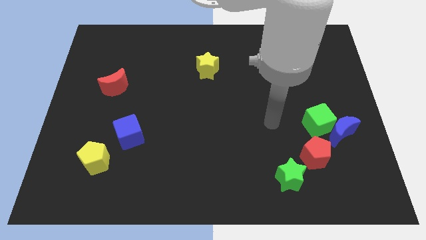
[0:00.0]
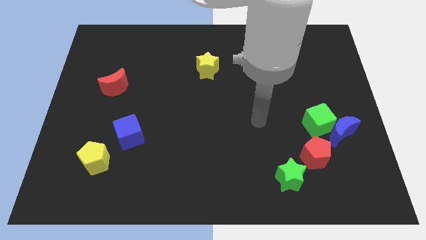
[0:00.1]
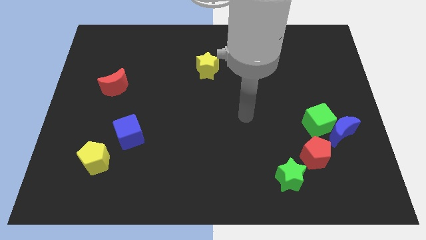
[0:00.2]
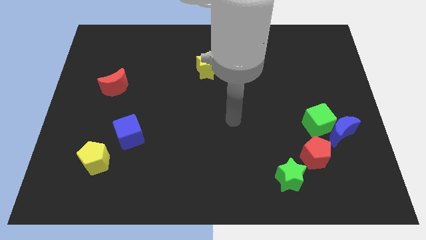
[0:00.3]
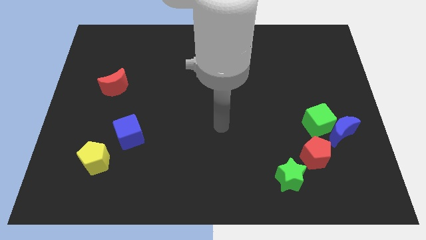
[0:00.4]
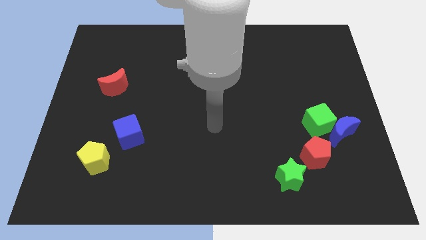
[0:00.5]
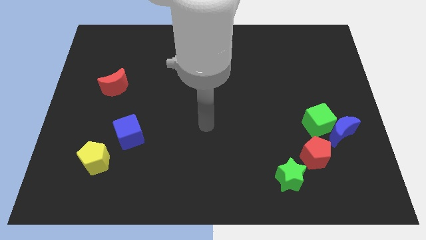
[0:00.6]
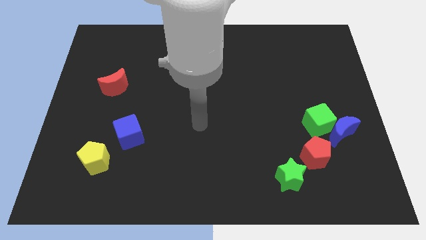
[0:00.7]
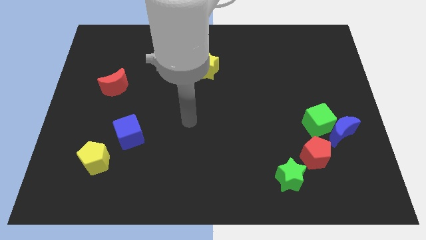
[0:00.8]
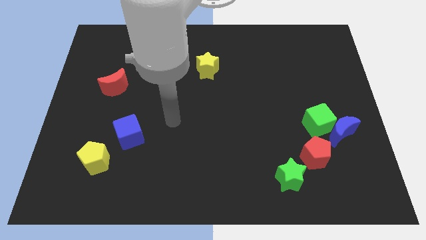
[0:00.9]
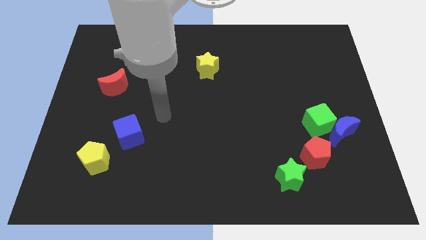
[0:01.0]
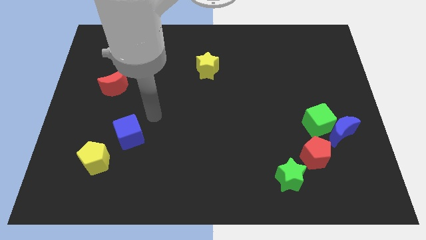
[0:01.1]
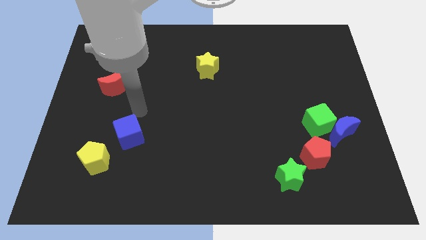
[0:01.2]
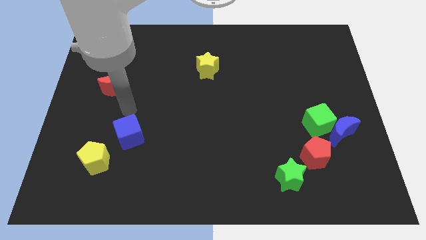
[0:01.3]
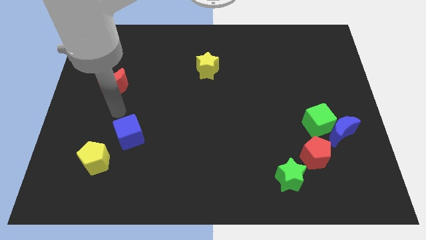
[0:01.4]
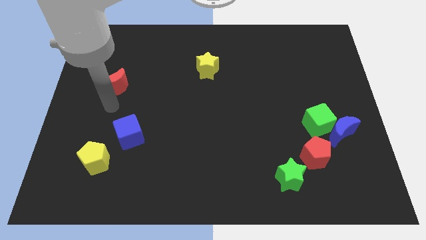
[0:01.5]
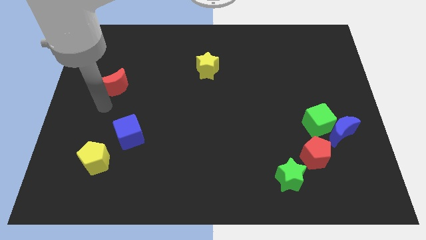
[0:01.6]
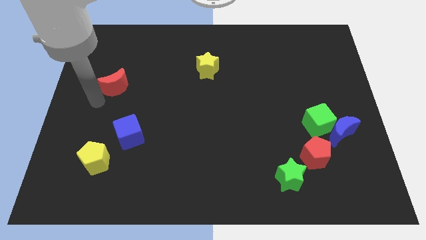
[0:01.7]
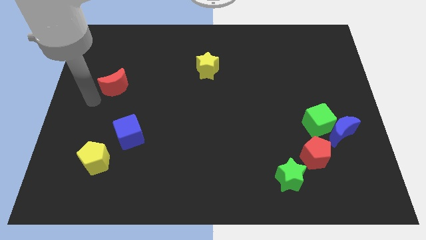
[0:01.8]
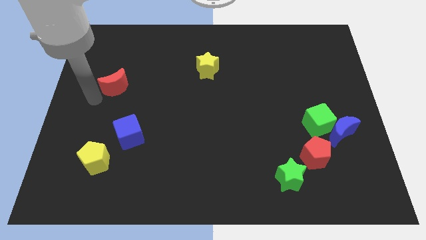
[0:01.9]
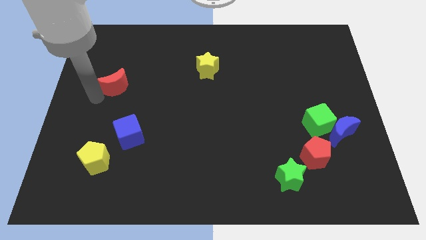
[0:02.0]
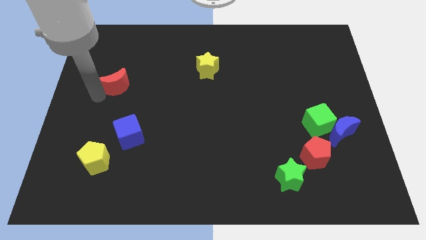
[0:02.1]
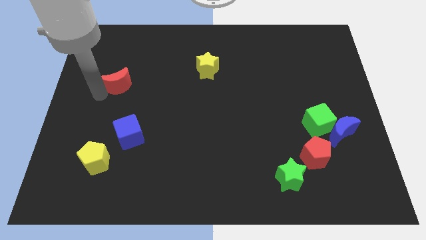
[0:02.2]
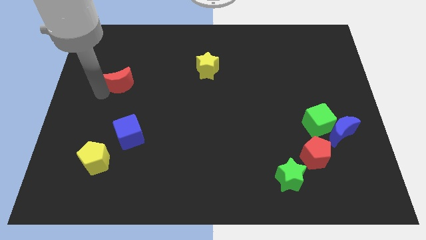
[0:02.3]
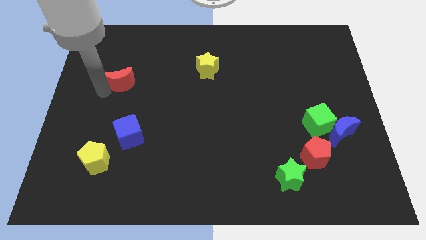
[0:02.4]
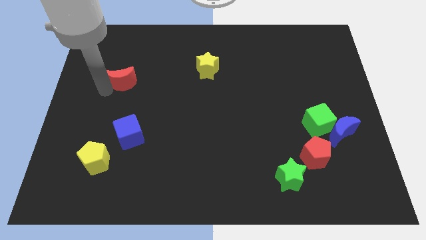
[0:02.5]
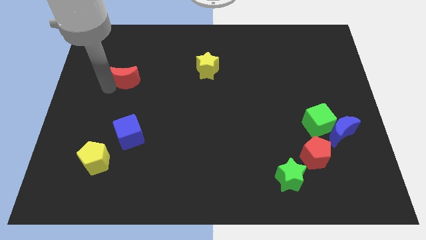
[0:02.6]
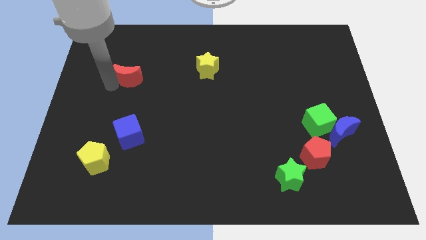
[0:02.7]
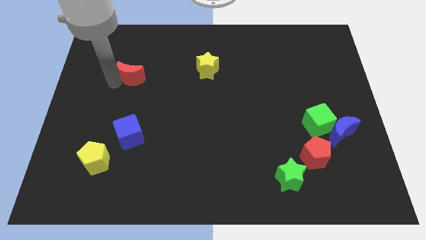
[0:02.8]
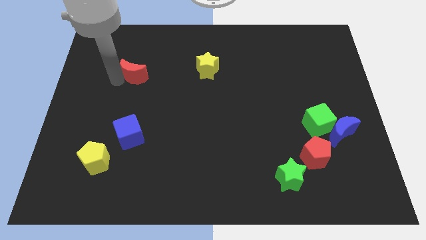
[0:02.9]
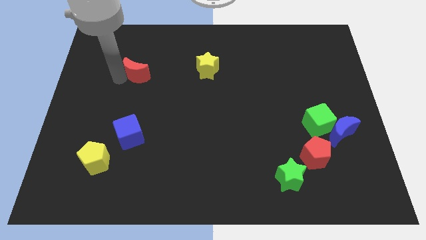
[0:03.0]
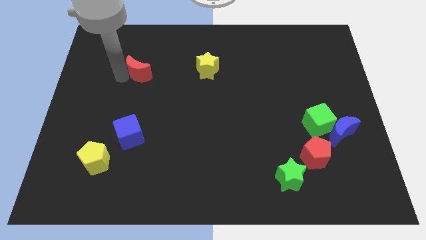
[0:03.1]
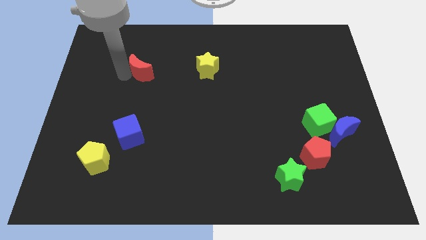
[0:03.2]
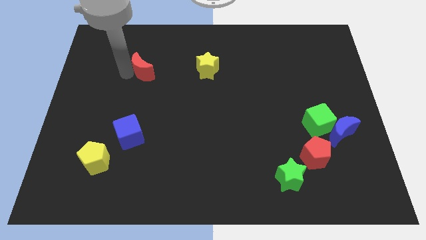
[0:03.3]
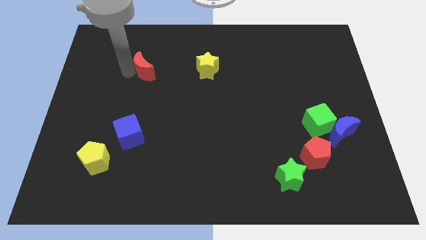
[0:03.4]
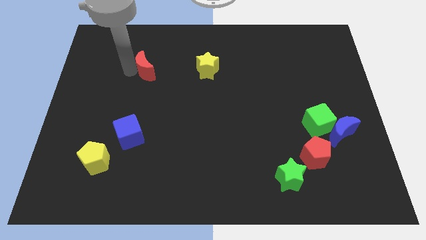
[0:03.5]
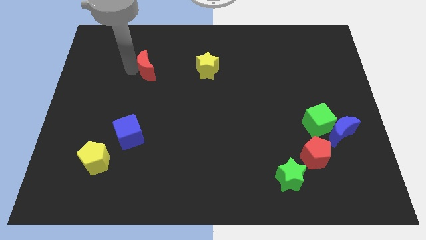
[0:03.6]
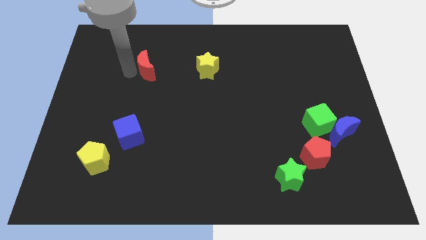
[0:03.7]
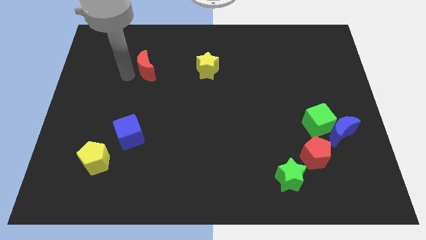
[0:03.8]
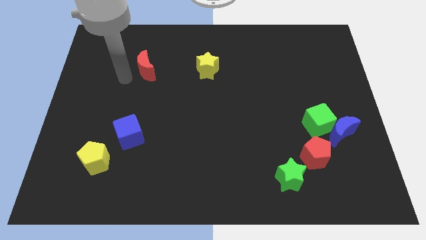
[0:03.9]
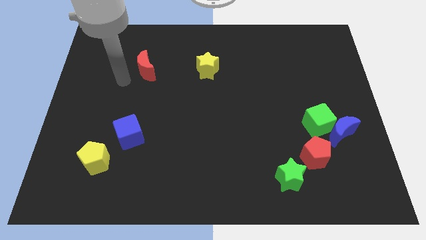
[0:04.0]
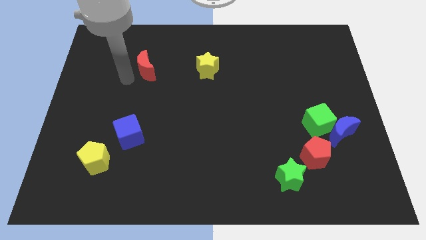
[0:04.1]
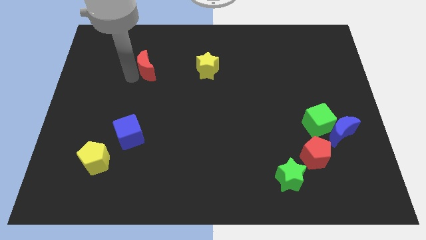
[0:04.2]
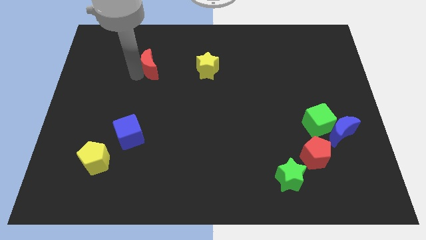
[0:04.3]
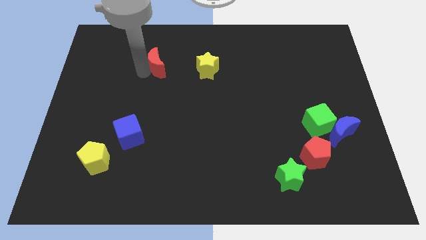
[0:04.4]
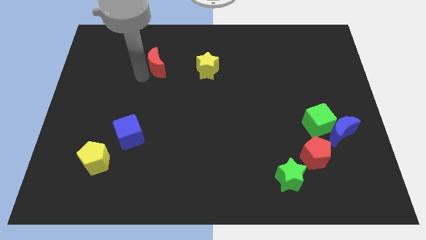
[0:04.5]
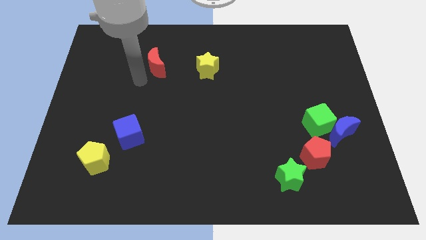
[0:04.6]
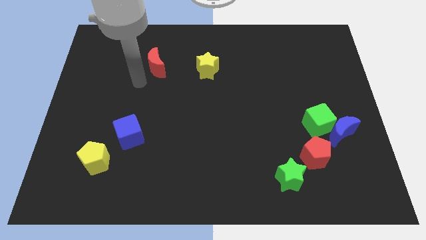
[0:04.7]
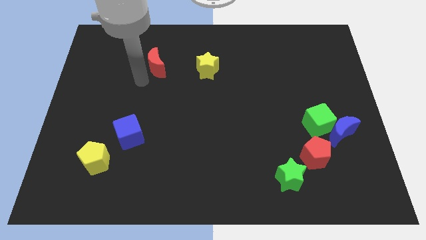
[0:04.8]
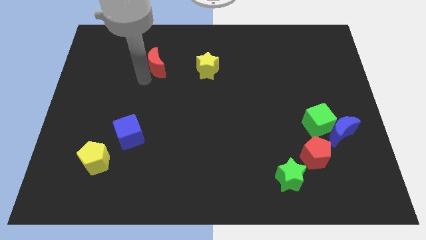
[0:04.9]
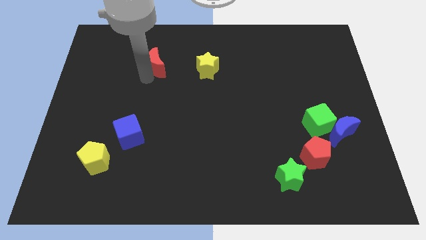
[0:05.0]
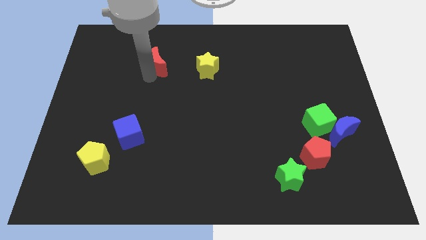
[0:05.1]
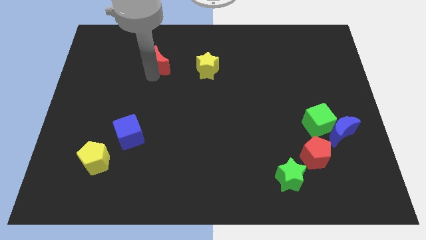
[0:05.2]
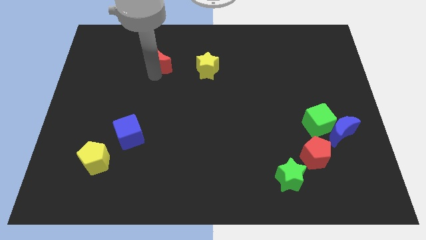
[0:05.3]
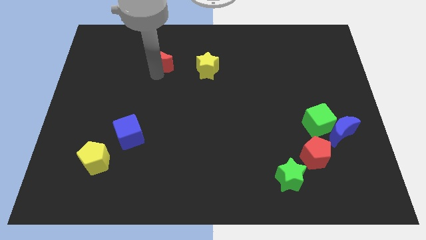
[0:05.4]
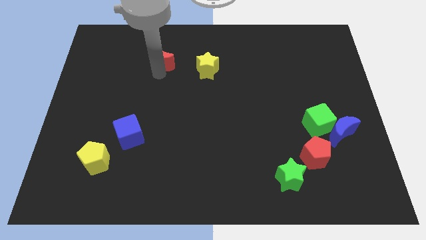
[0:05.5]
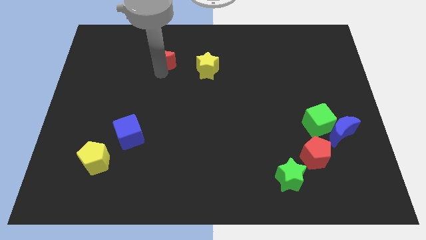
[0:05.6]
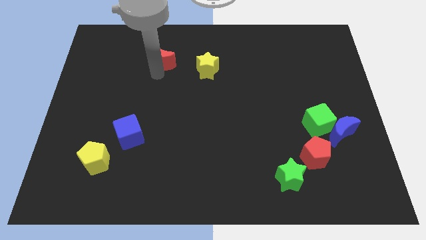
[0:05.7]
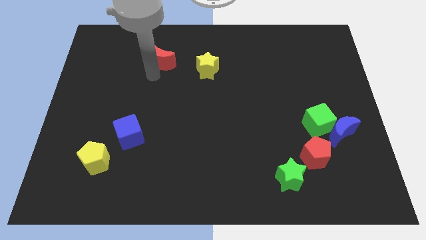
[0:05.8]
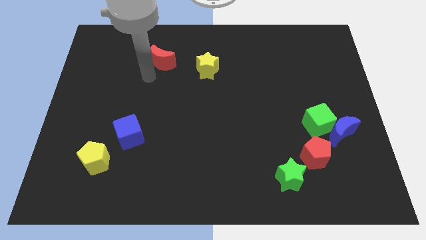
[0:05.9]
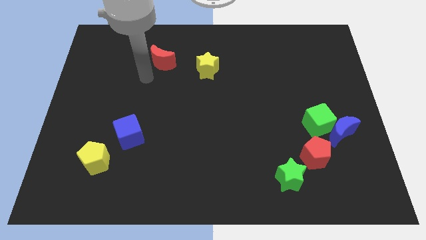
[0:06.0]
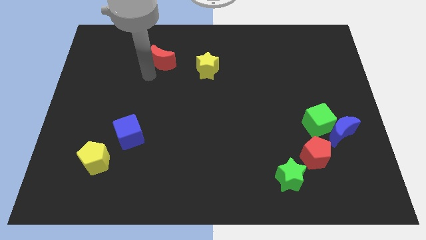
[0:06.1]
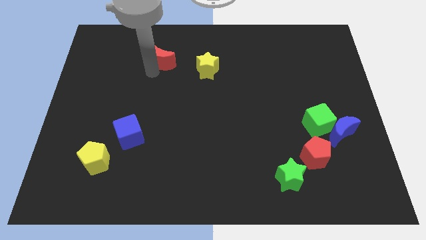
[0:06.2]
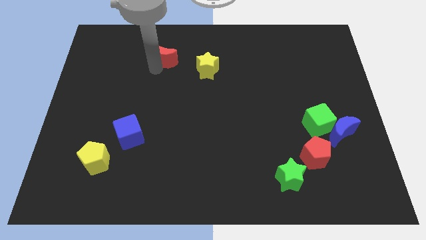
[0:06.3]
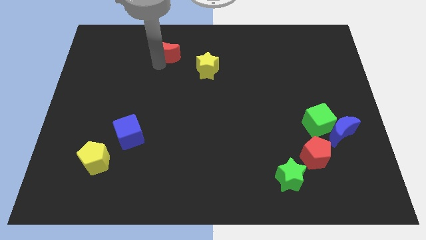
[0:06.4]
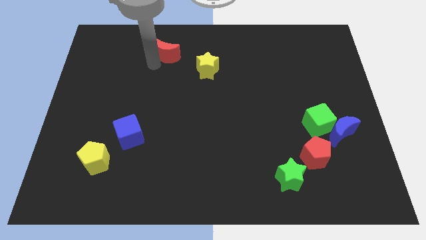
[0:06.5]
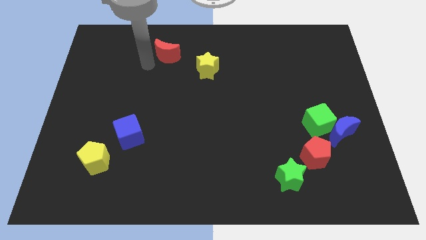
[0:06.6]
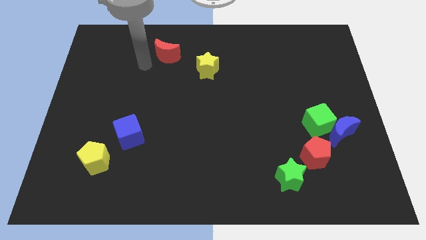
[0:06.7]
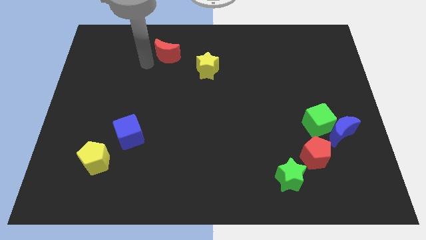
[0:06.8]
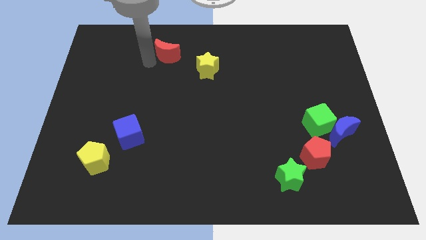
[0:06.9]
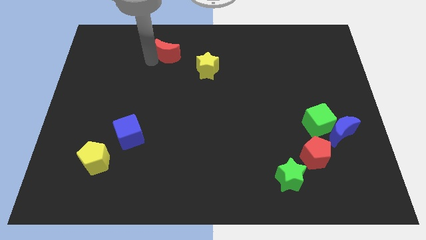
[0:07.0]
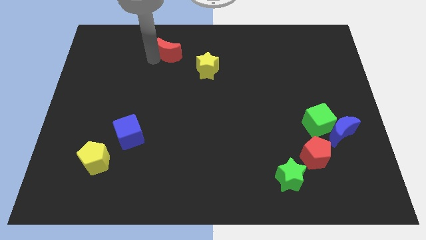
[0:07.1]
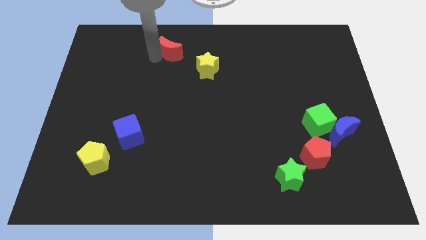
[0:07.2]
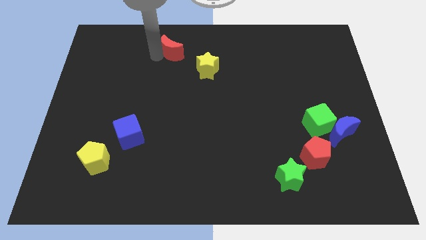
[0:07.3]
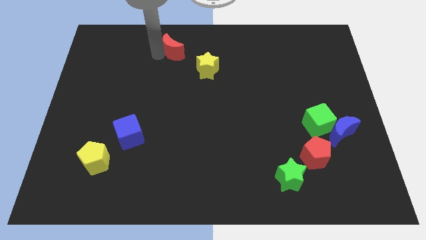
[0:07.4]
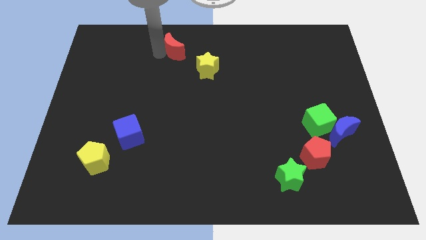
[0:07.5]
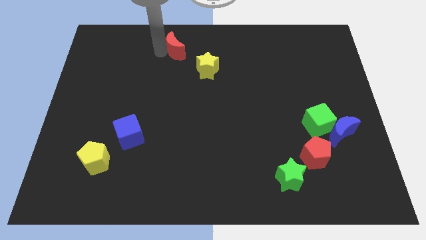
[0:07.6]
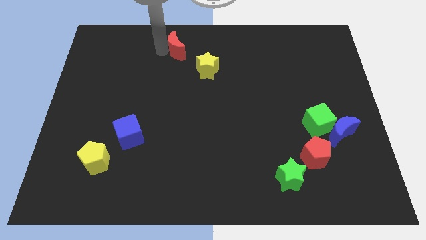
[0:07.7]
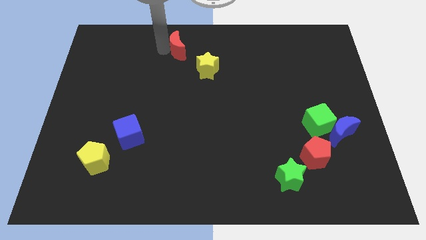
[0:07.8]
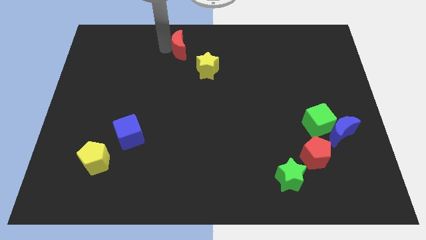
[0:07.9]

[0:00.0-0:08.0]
push the red moon to the top
